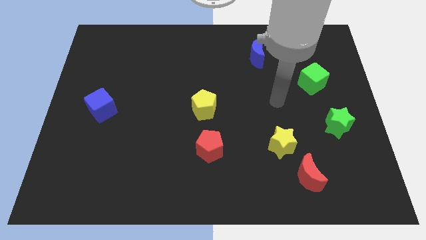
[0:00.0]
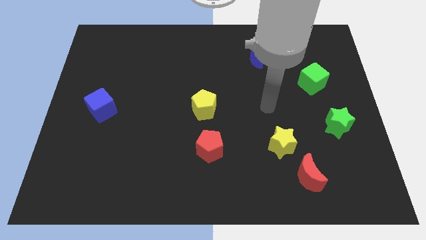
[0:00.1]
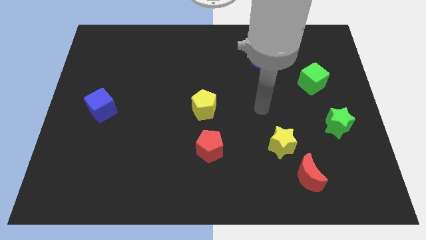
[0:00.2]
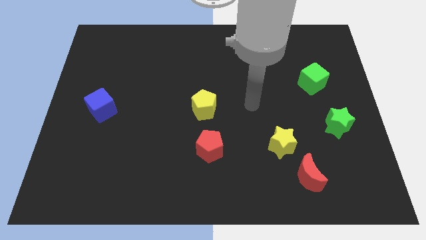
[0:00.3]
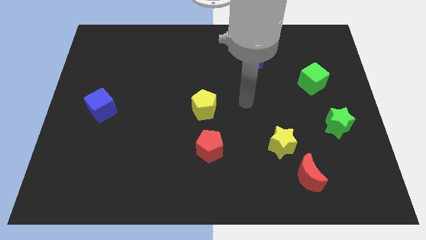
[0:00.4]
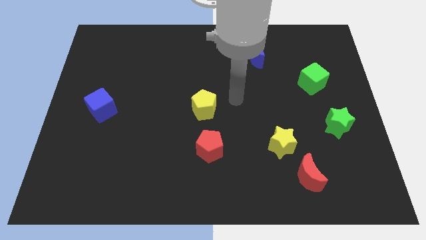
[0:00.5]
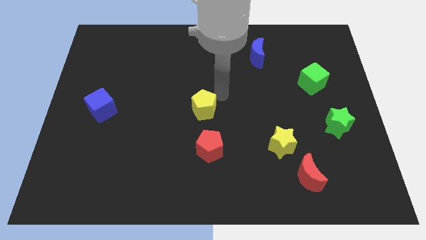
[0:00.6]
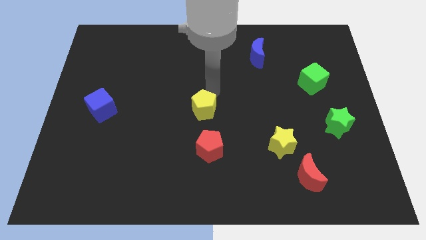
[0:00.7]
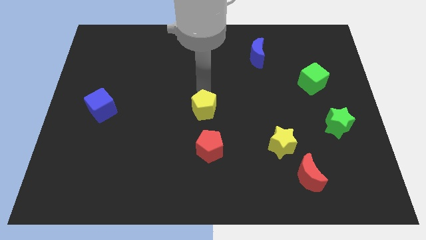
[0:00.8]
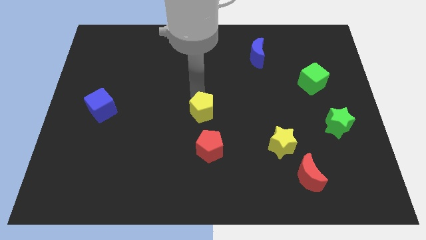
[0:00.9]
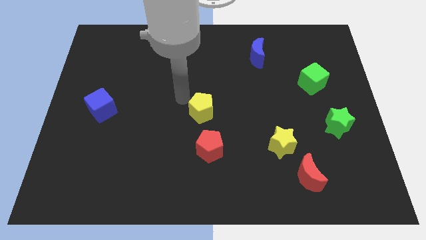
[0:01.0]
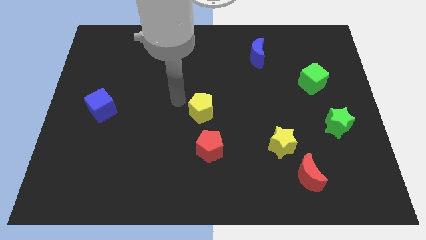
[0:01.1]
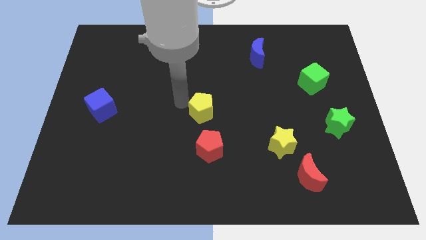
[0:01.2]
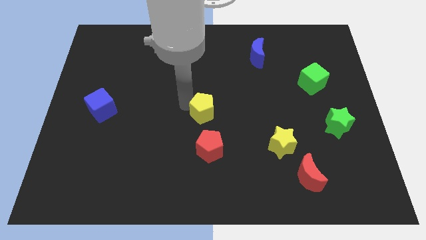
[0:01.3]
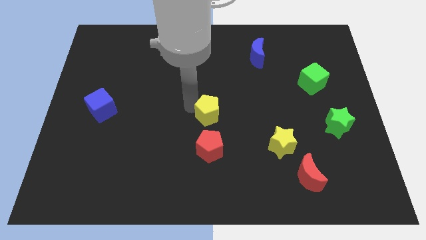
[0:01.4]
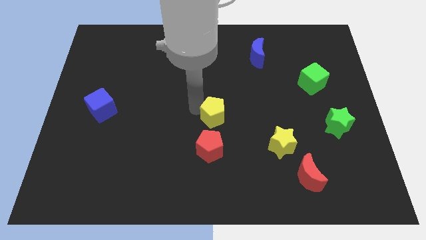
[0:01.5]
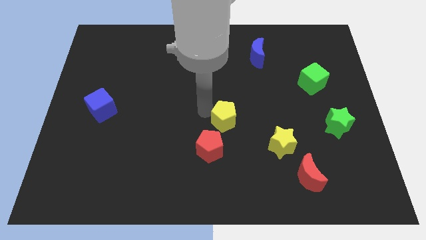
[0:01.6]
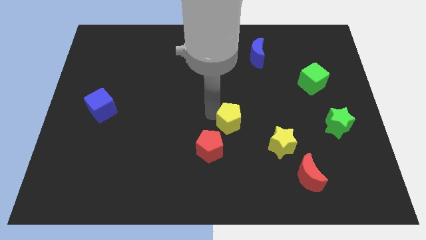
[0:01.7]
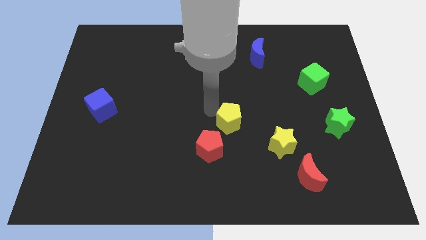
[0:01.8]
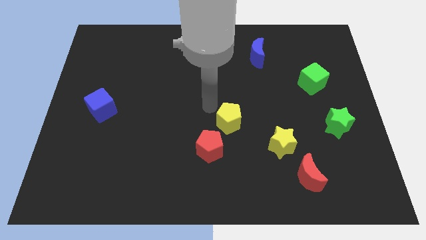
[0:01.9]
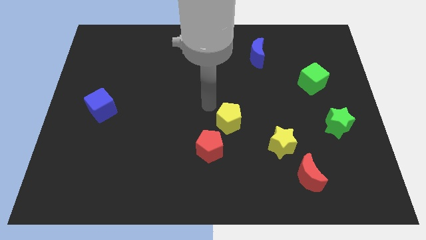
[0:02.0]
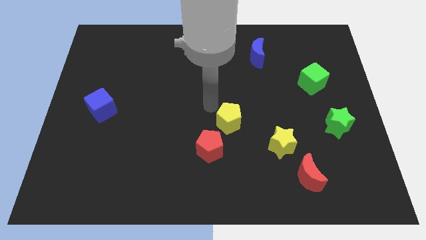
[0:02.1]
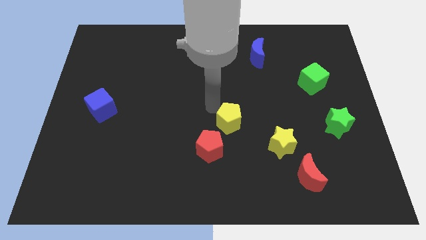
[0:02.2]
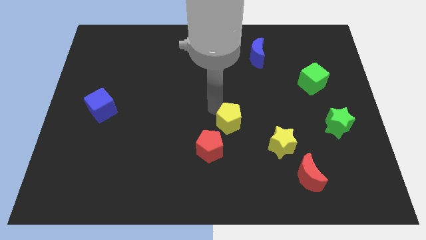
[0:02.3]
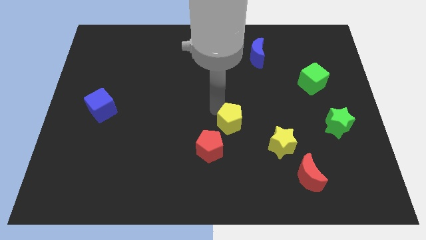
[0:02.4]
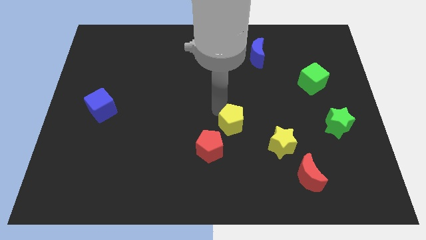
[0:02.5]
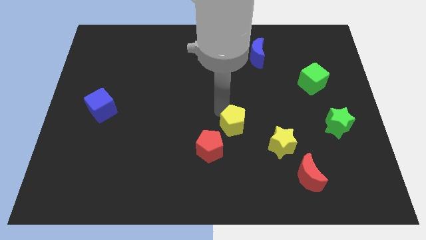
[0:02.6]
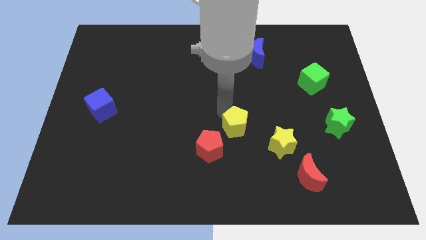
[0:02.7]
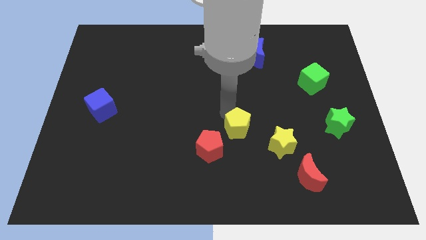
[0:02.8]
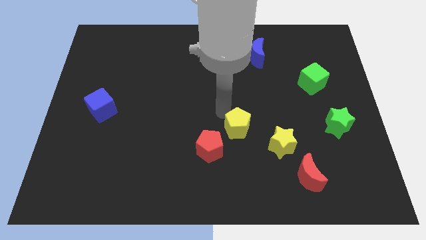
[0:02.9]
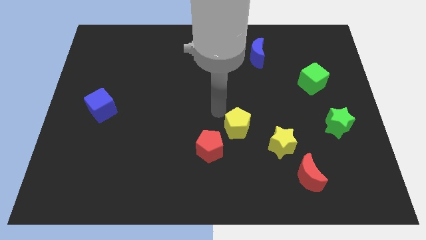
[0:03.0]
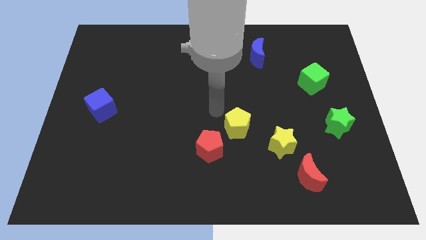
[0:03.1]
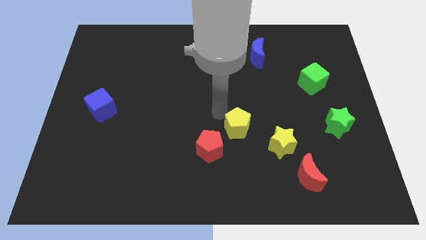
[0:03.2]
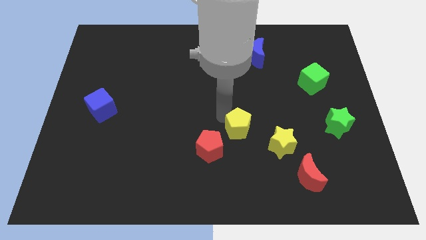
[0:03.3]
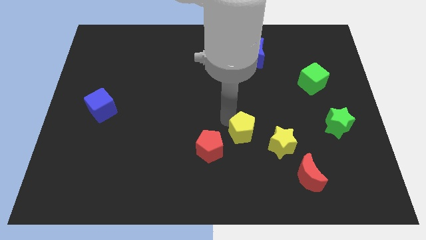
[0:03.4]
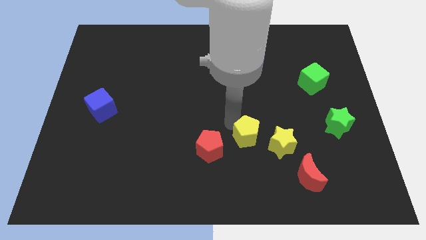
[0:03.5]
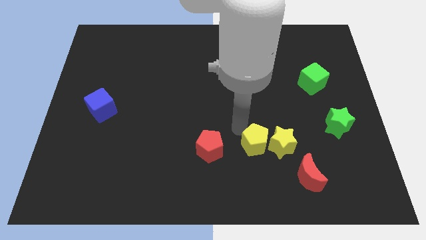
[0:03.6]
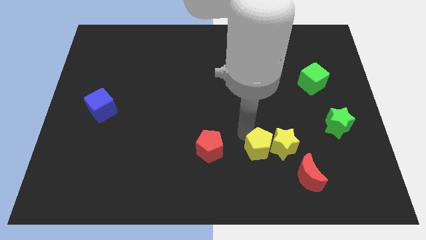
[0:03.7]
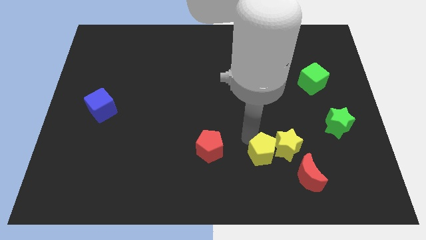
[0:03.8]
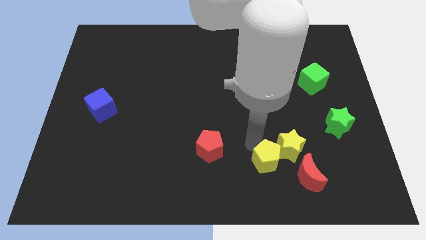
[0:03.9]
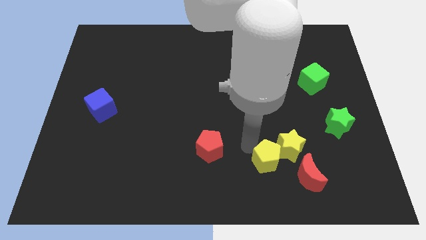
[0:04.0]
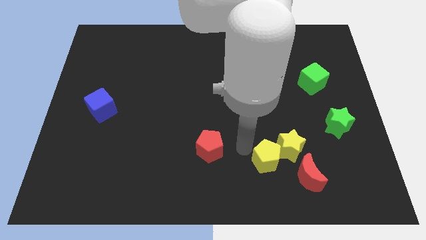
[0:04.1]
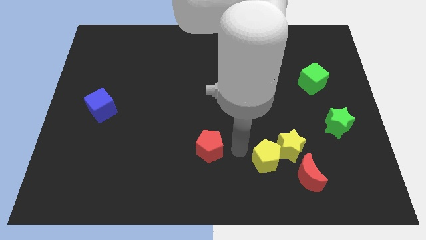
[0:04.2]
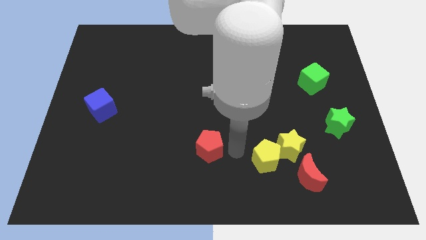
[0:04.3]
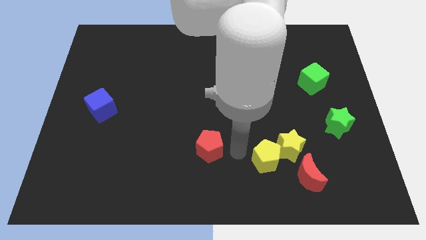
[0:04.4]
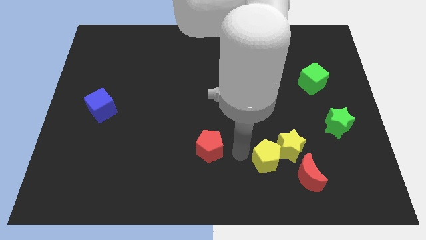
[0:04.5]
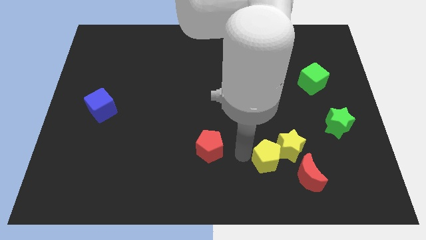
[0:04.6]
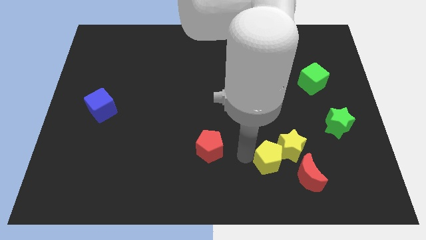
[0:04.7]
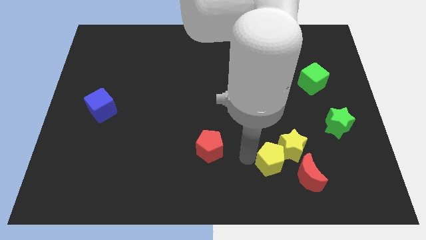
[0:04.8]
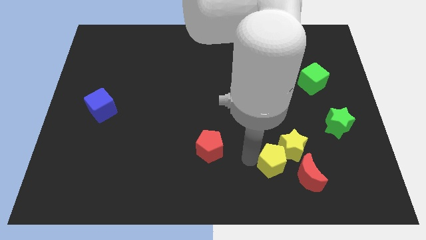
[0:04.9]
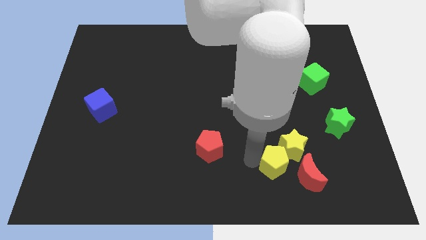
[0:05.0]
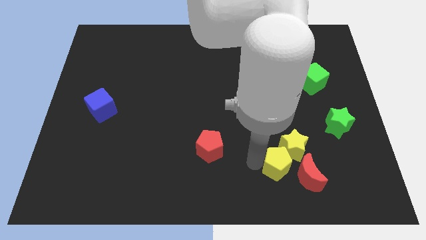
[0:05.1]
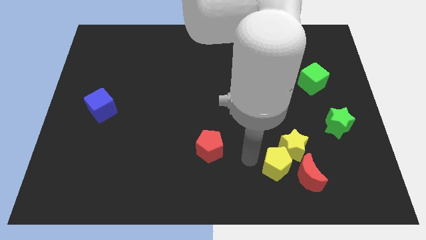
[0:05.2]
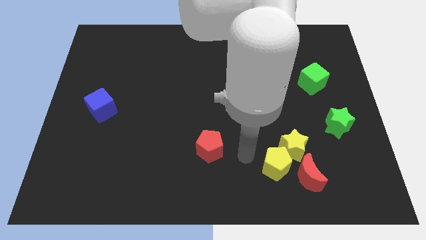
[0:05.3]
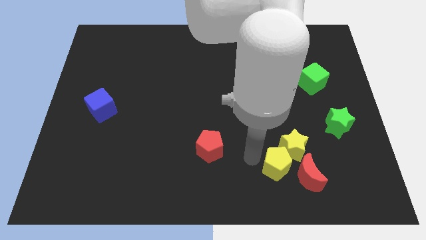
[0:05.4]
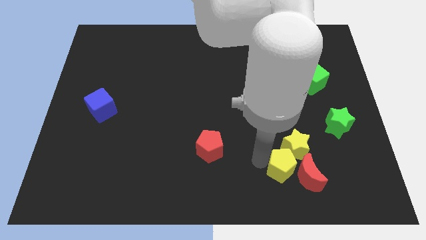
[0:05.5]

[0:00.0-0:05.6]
push the yellow pentagon towards the red moon

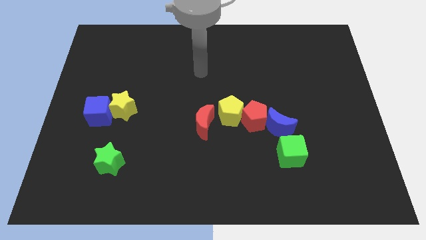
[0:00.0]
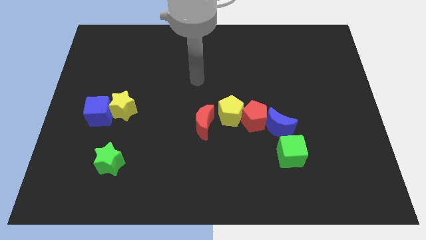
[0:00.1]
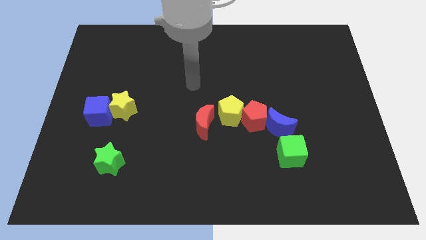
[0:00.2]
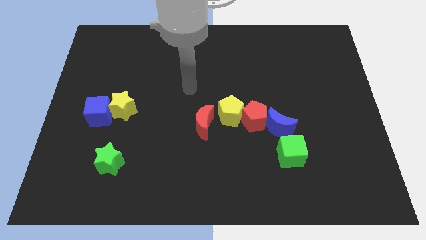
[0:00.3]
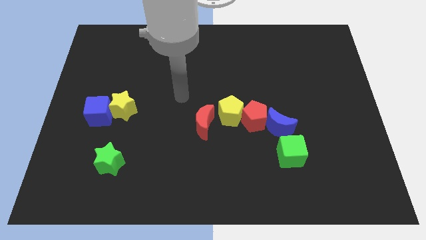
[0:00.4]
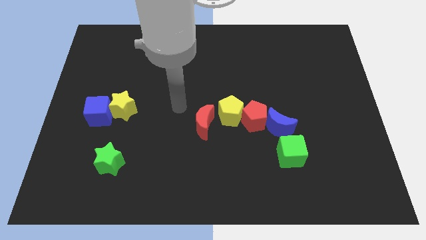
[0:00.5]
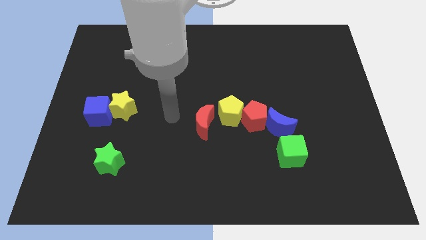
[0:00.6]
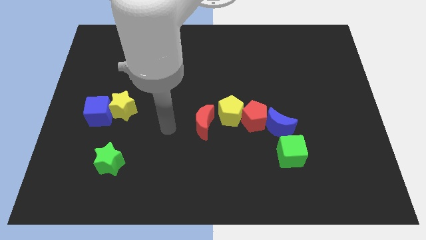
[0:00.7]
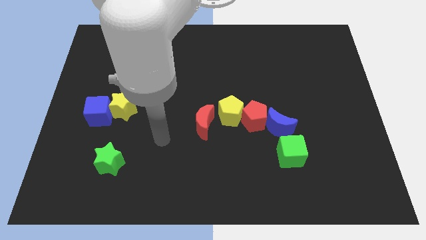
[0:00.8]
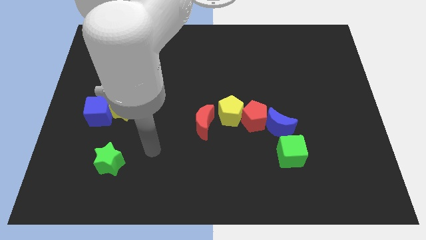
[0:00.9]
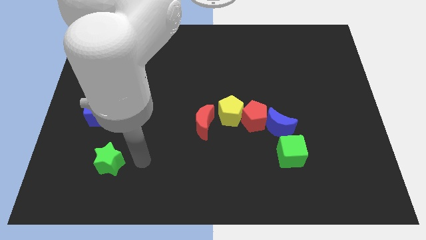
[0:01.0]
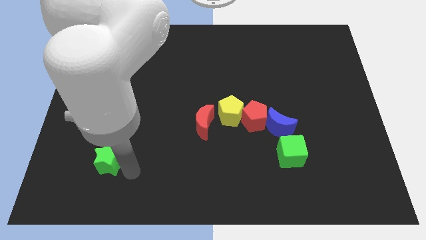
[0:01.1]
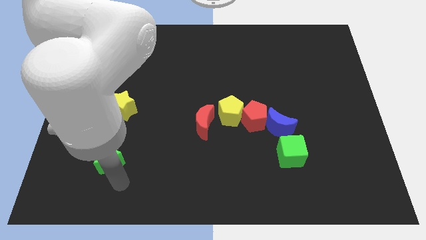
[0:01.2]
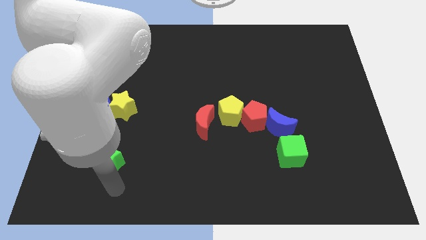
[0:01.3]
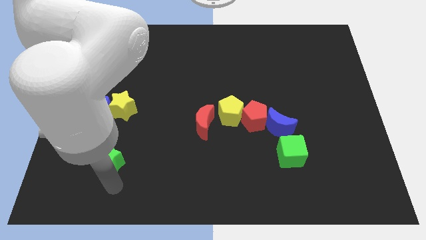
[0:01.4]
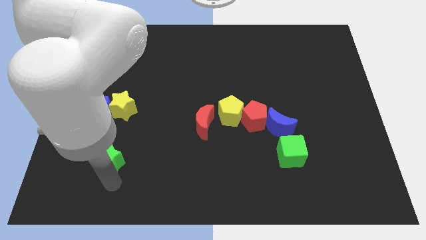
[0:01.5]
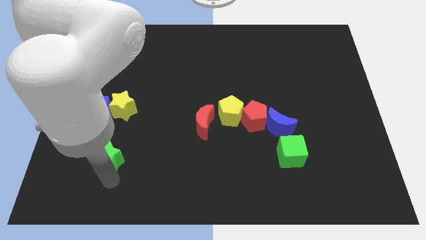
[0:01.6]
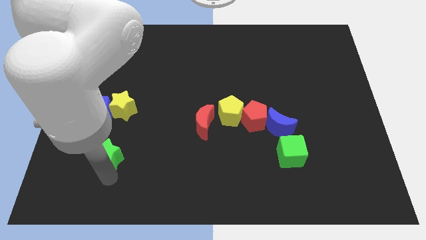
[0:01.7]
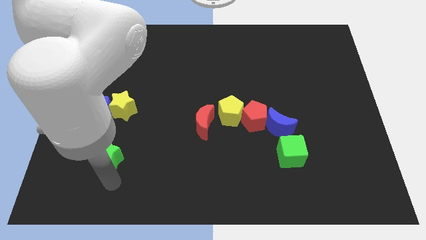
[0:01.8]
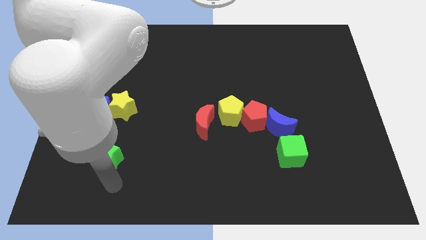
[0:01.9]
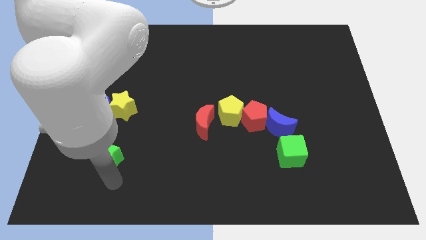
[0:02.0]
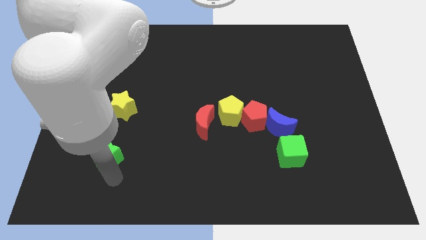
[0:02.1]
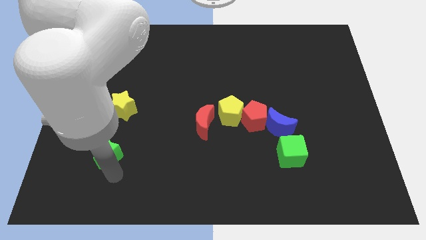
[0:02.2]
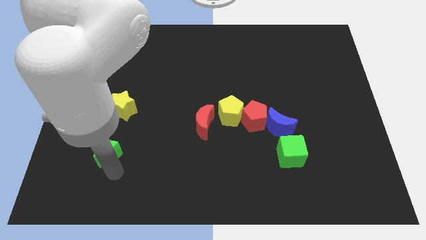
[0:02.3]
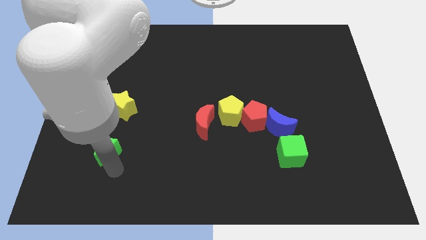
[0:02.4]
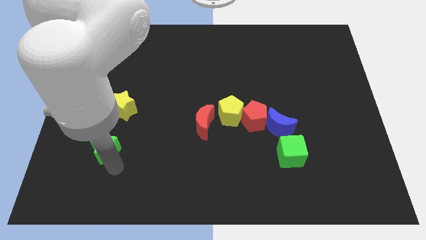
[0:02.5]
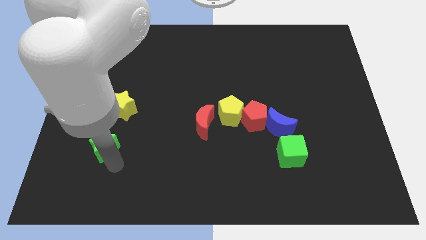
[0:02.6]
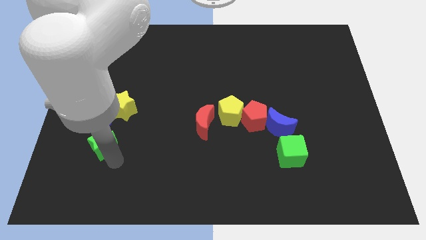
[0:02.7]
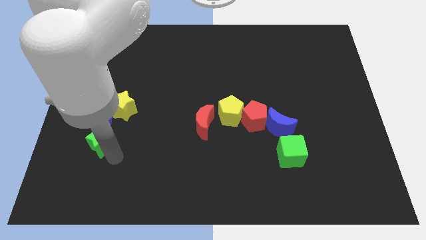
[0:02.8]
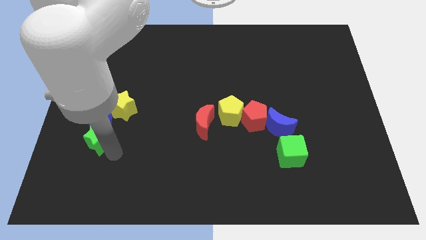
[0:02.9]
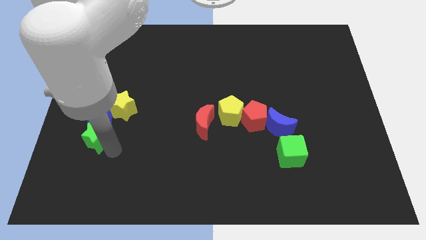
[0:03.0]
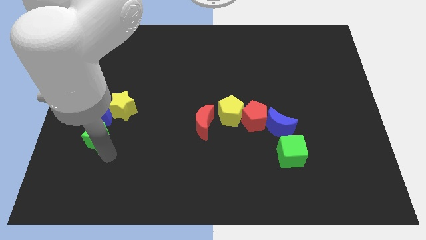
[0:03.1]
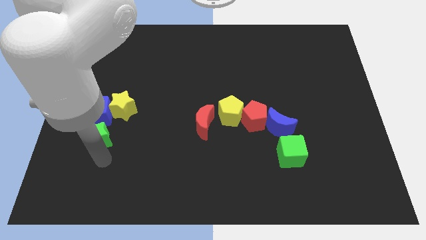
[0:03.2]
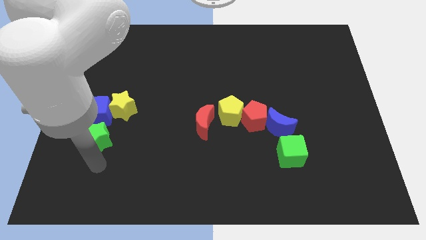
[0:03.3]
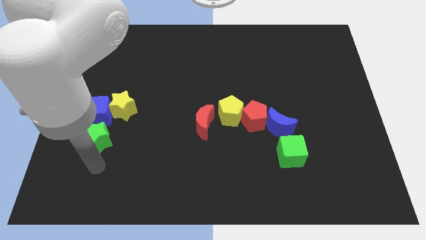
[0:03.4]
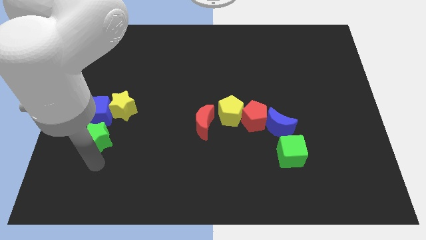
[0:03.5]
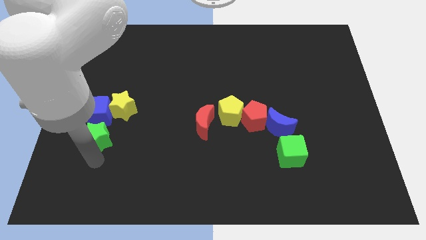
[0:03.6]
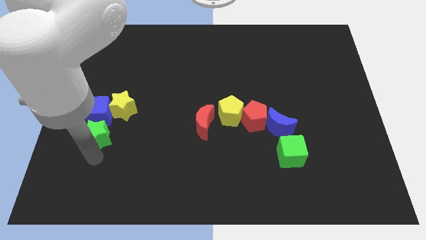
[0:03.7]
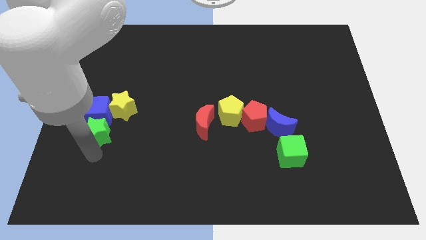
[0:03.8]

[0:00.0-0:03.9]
move the green star close to the blue cube
